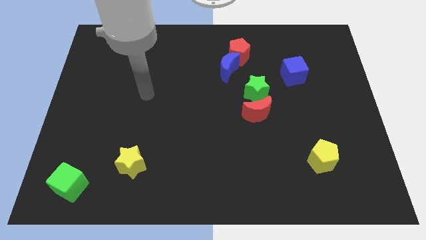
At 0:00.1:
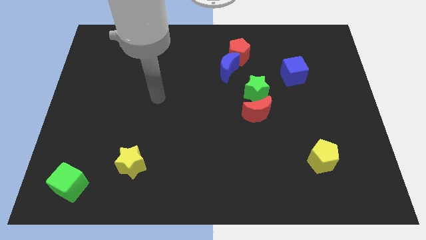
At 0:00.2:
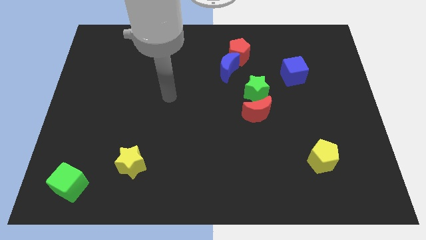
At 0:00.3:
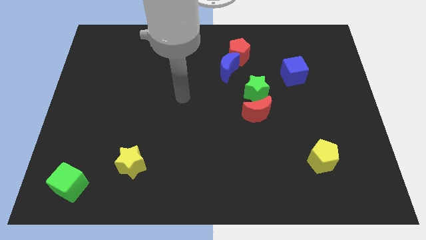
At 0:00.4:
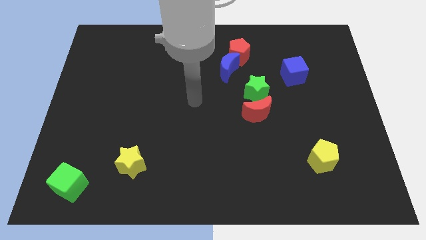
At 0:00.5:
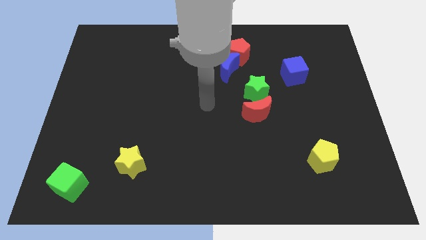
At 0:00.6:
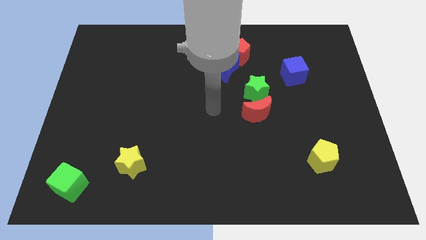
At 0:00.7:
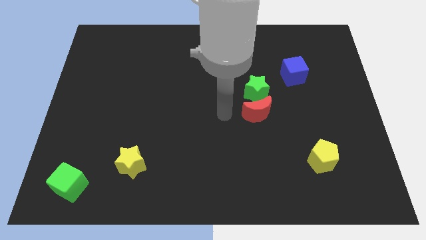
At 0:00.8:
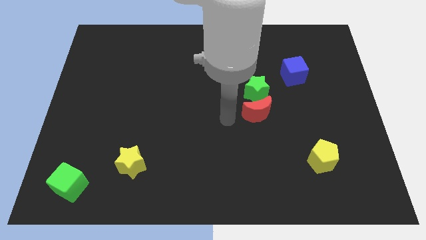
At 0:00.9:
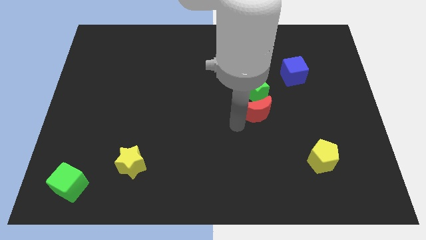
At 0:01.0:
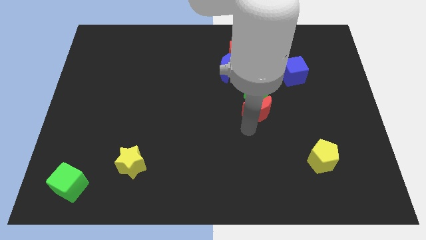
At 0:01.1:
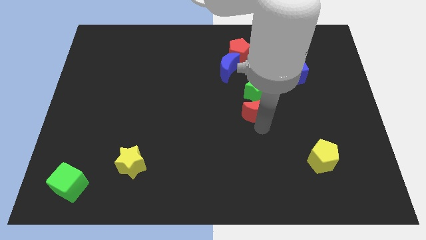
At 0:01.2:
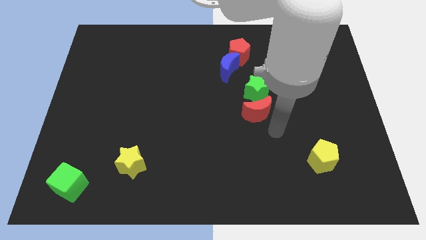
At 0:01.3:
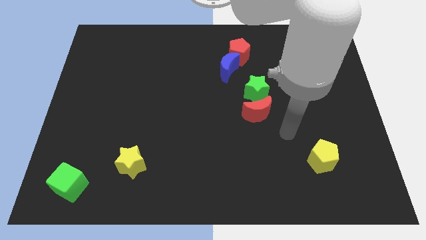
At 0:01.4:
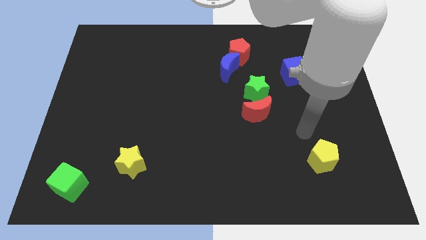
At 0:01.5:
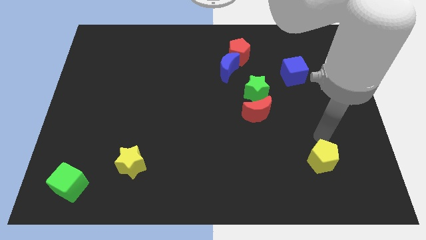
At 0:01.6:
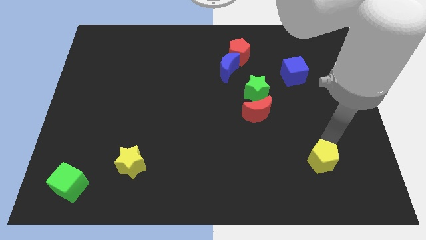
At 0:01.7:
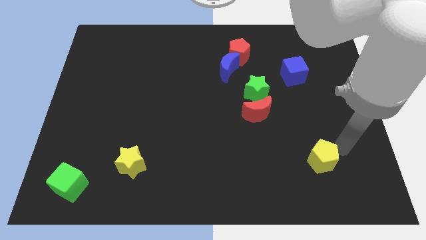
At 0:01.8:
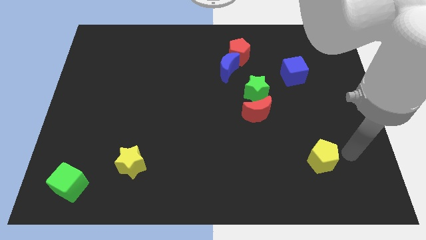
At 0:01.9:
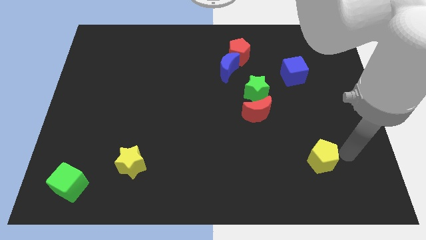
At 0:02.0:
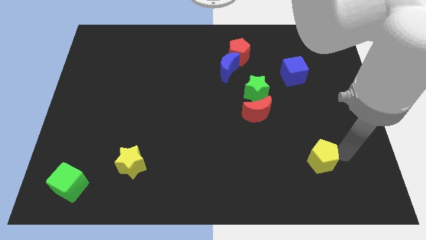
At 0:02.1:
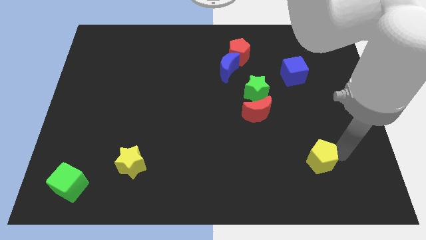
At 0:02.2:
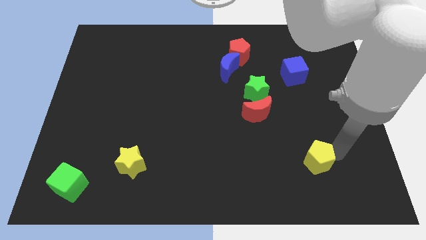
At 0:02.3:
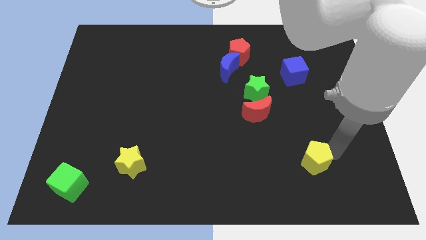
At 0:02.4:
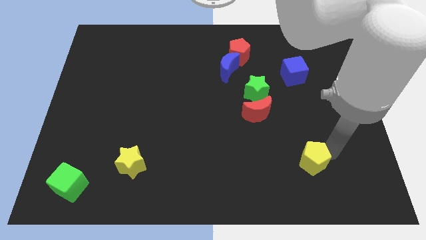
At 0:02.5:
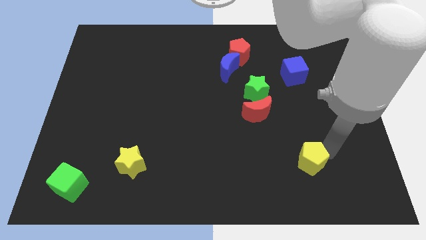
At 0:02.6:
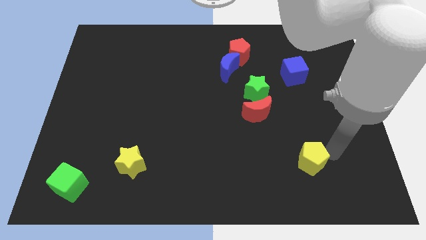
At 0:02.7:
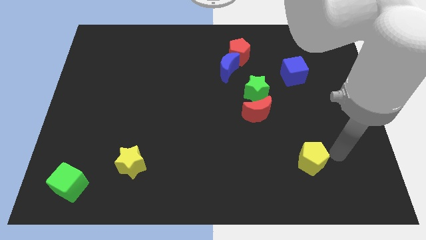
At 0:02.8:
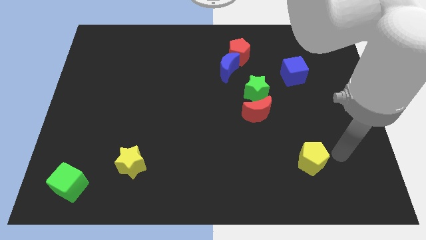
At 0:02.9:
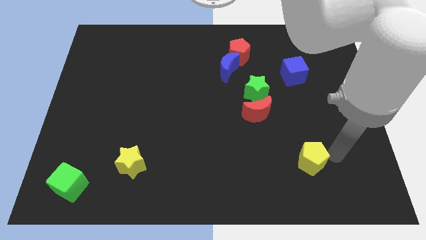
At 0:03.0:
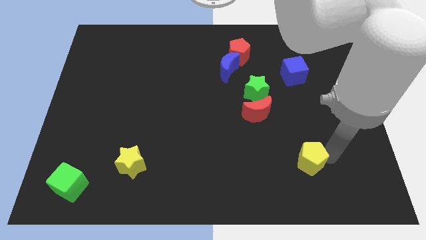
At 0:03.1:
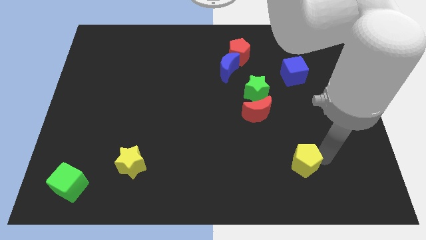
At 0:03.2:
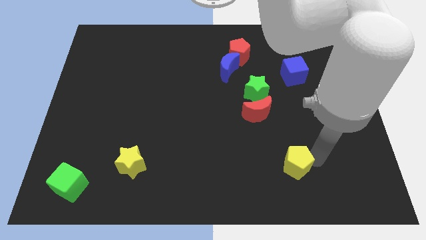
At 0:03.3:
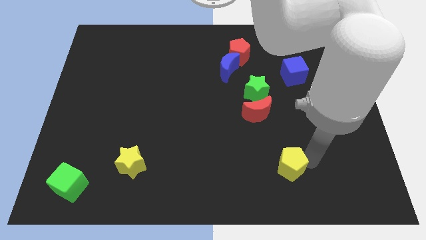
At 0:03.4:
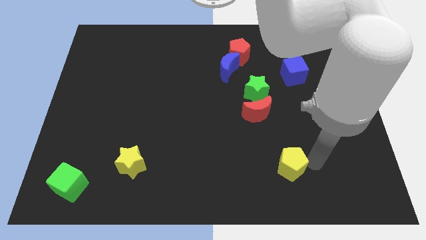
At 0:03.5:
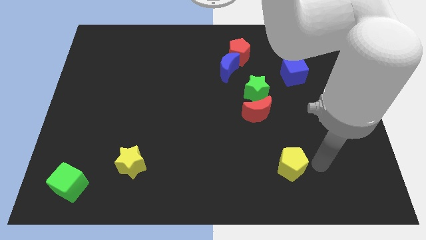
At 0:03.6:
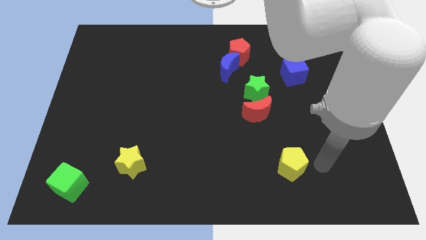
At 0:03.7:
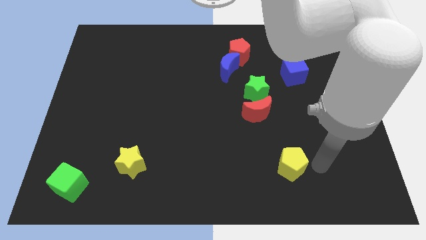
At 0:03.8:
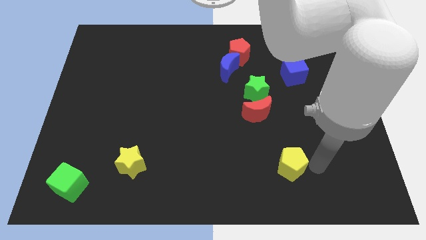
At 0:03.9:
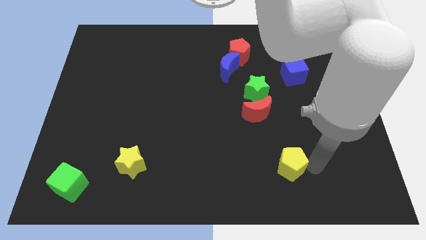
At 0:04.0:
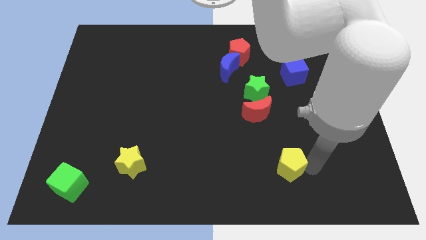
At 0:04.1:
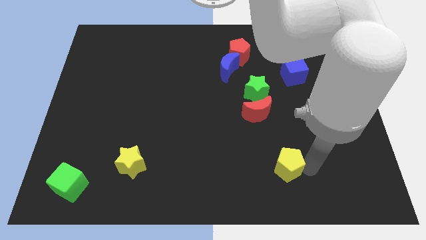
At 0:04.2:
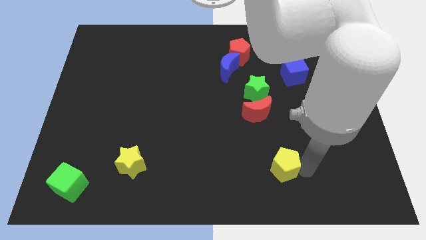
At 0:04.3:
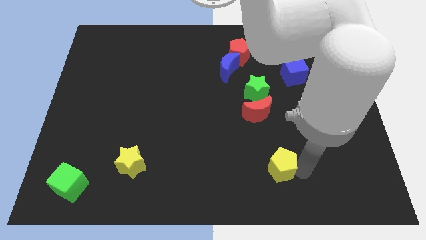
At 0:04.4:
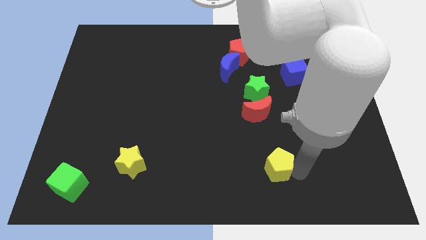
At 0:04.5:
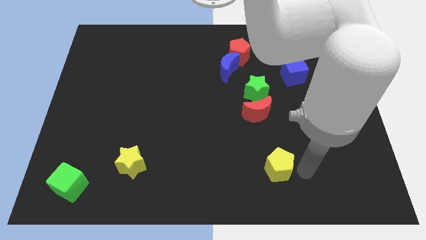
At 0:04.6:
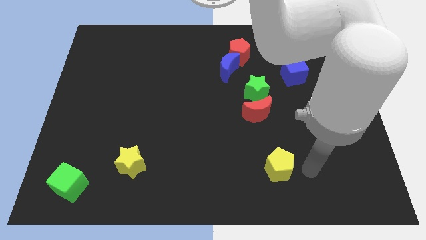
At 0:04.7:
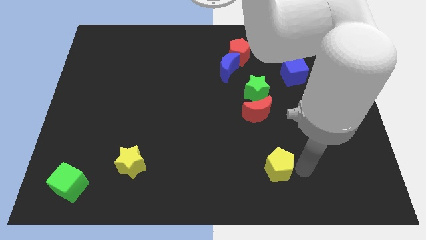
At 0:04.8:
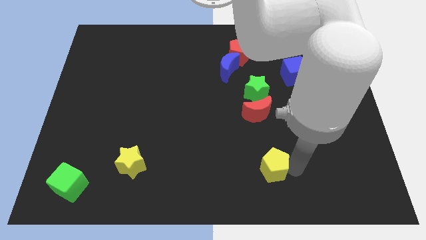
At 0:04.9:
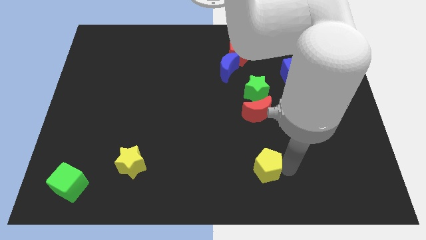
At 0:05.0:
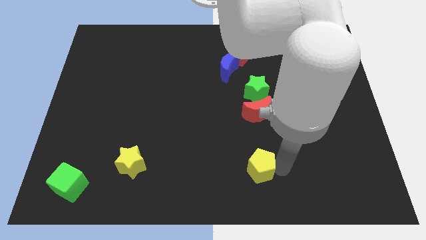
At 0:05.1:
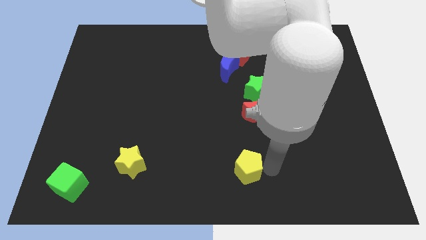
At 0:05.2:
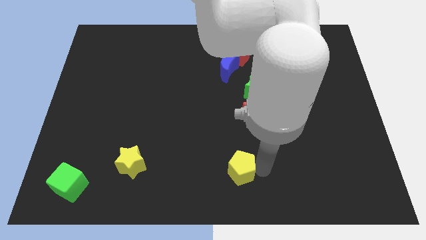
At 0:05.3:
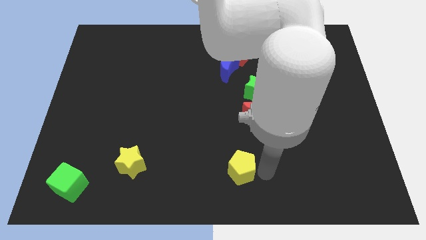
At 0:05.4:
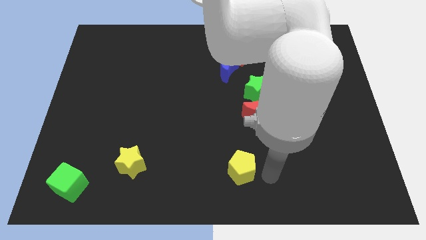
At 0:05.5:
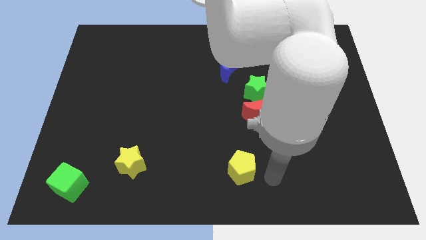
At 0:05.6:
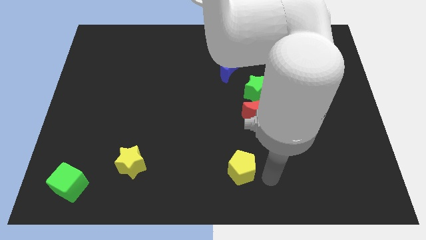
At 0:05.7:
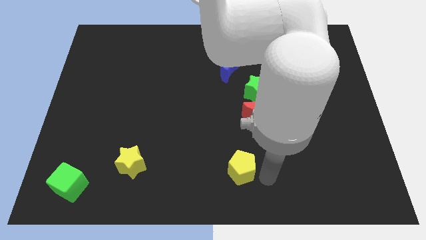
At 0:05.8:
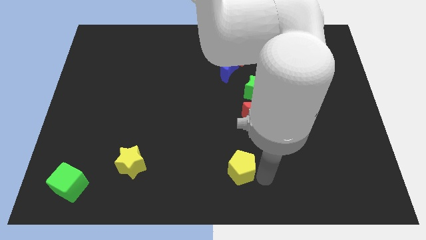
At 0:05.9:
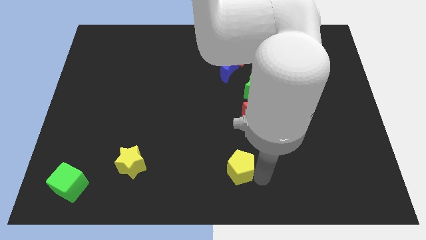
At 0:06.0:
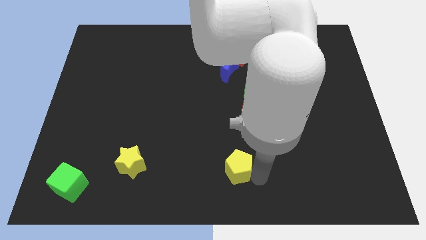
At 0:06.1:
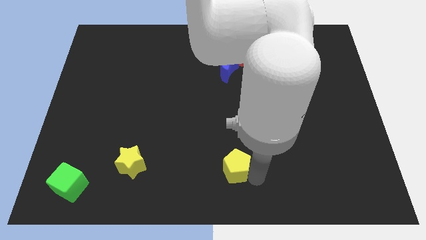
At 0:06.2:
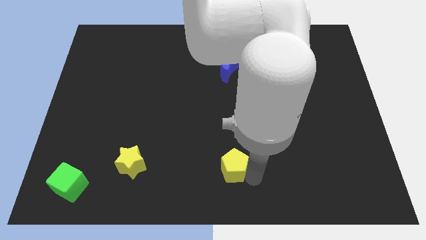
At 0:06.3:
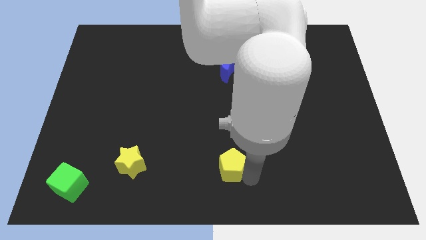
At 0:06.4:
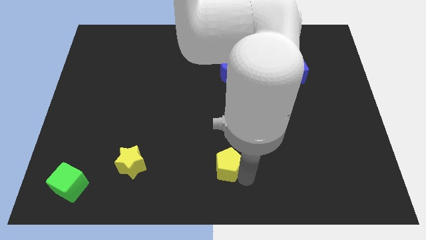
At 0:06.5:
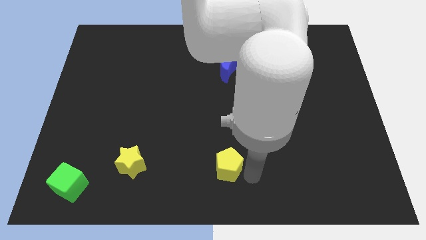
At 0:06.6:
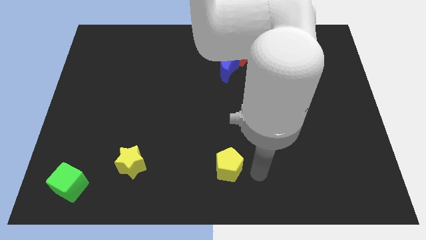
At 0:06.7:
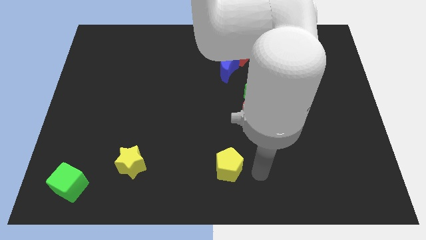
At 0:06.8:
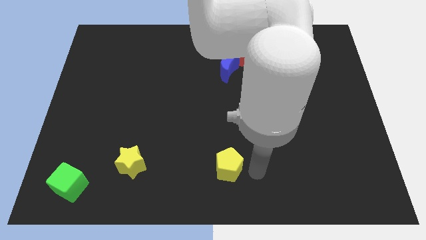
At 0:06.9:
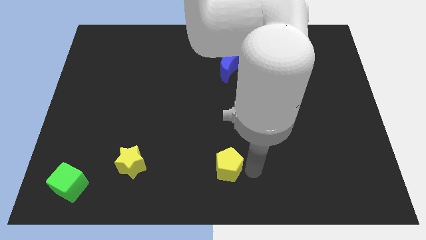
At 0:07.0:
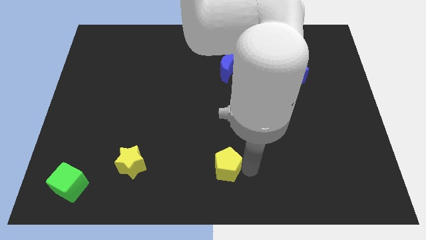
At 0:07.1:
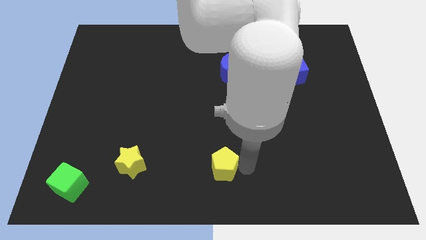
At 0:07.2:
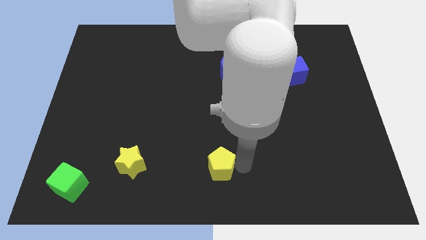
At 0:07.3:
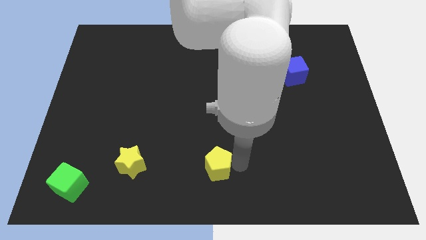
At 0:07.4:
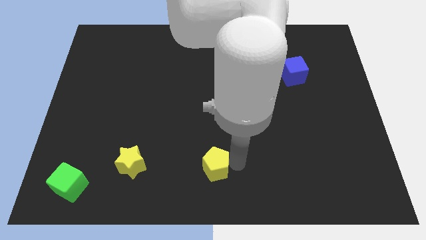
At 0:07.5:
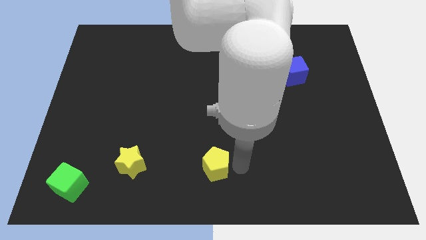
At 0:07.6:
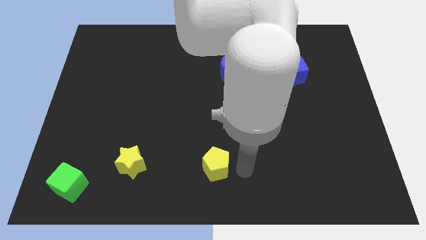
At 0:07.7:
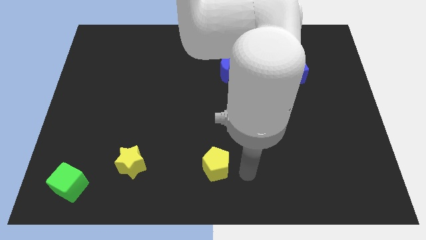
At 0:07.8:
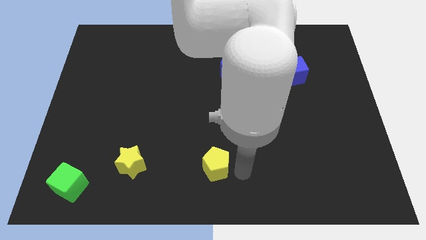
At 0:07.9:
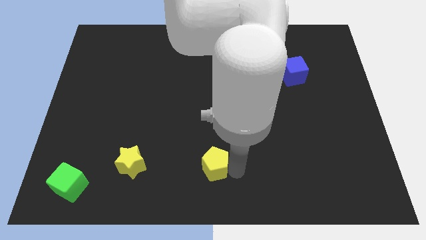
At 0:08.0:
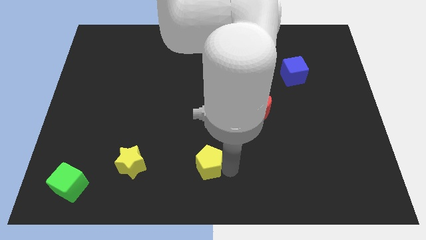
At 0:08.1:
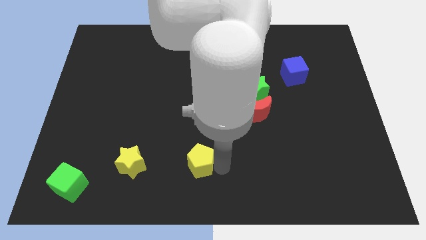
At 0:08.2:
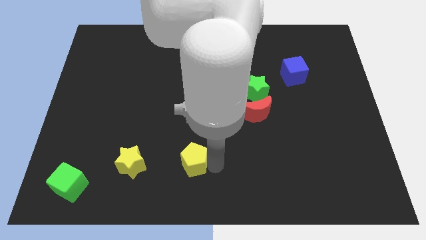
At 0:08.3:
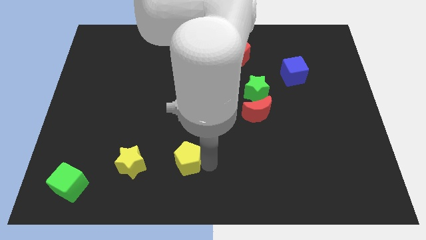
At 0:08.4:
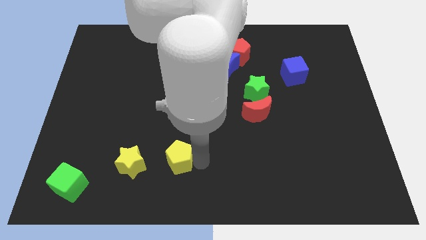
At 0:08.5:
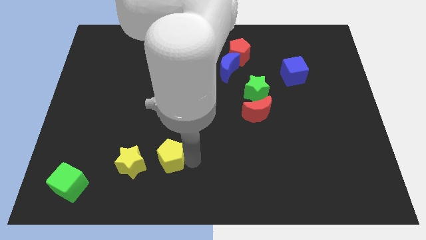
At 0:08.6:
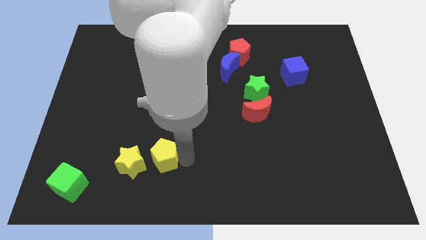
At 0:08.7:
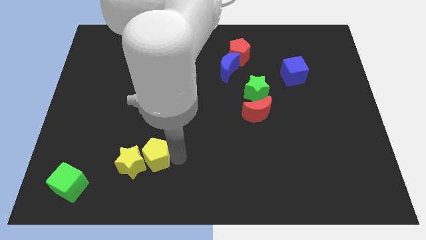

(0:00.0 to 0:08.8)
put the yellow pentagon close to the yellow star
